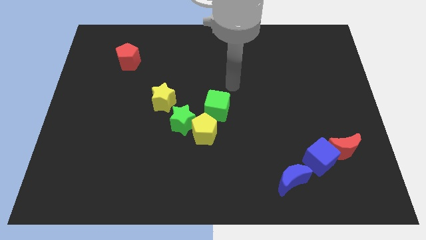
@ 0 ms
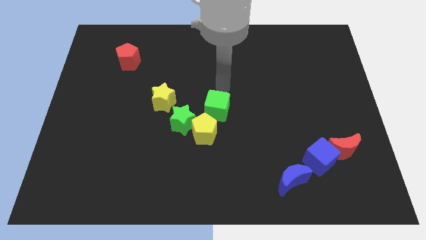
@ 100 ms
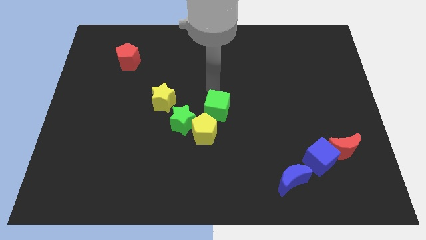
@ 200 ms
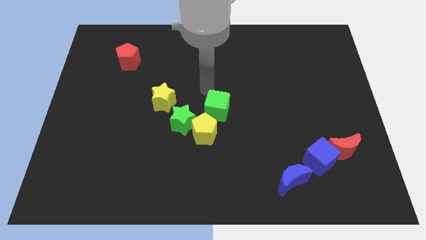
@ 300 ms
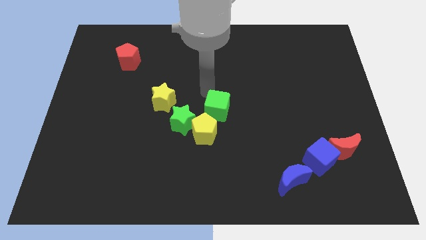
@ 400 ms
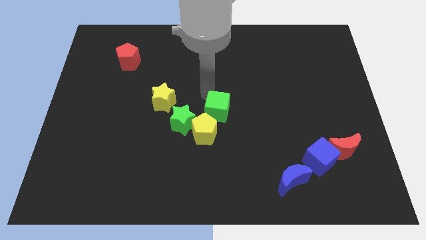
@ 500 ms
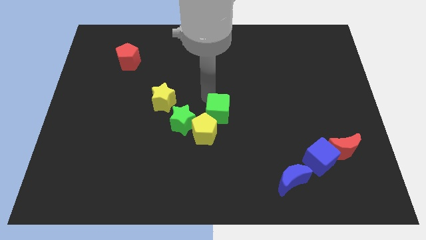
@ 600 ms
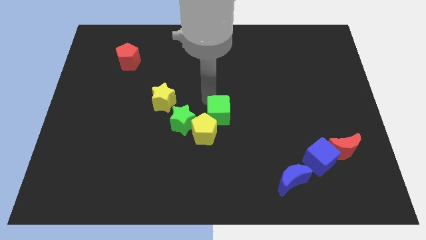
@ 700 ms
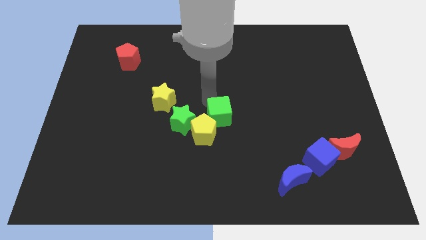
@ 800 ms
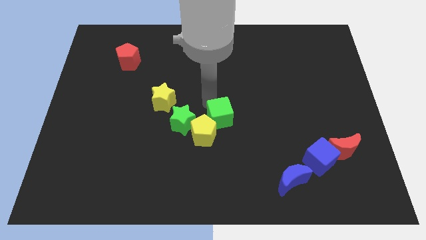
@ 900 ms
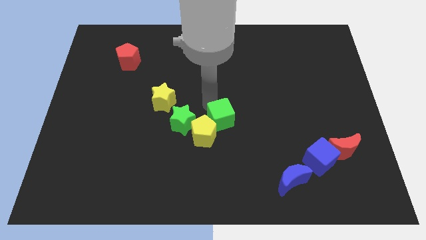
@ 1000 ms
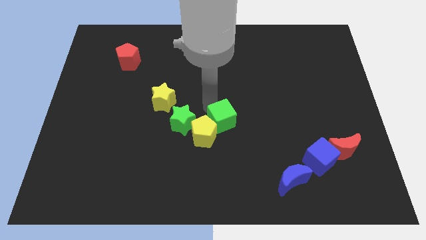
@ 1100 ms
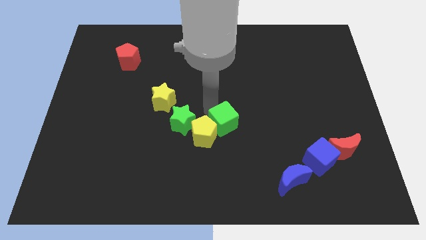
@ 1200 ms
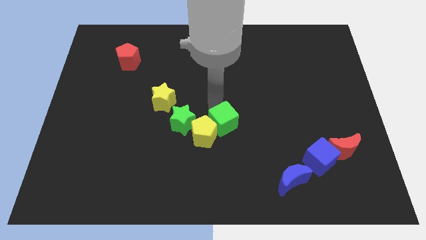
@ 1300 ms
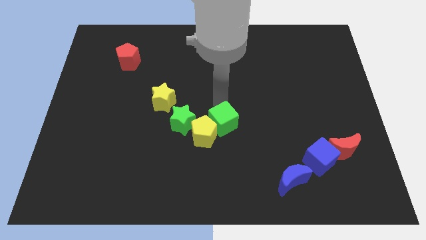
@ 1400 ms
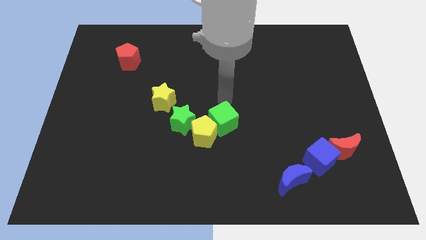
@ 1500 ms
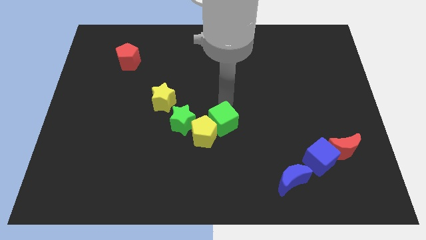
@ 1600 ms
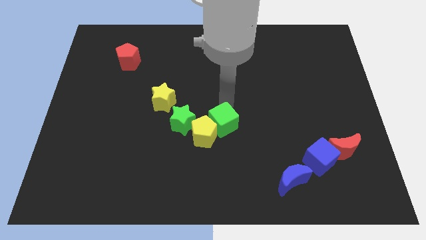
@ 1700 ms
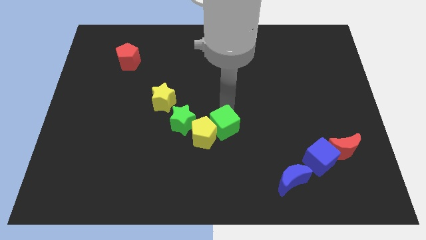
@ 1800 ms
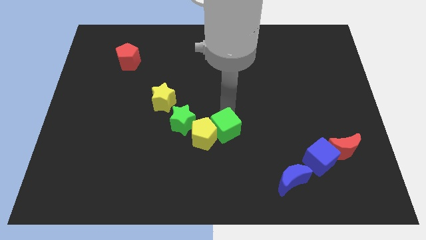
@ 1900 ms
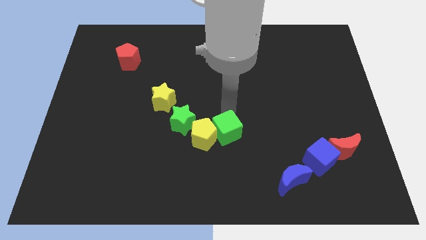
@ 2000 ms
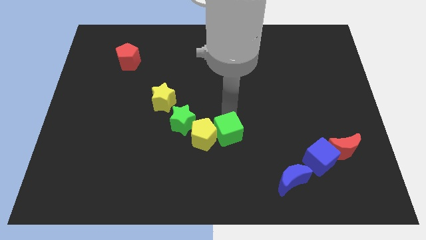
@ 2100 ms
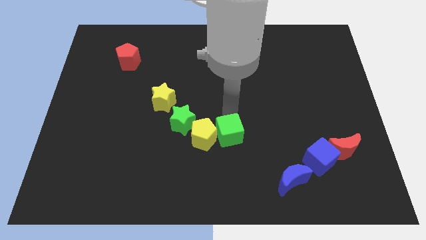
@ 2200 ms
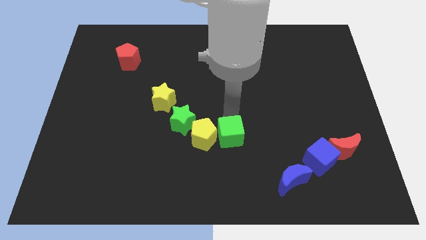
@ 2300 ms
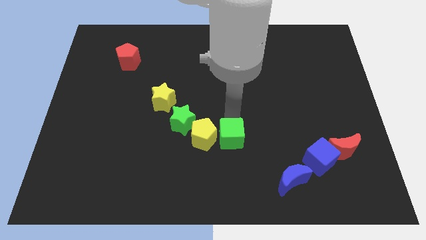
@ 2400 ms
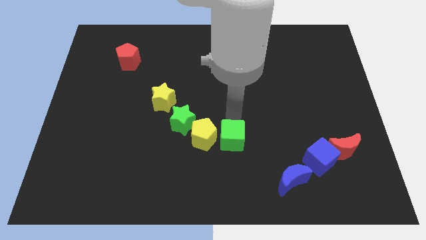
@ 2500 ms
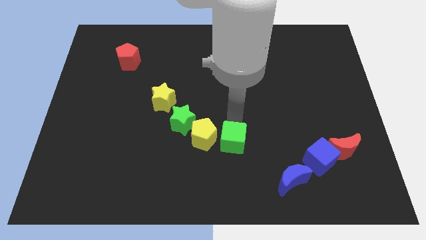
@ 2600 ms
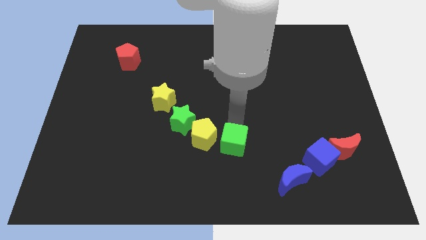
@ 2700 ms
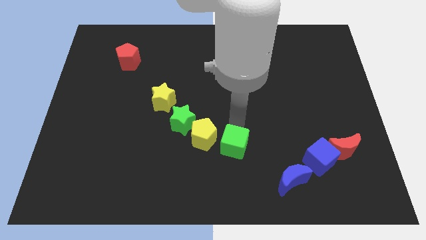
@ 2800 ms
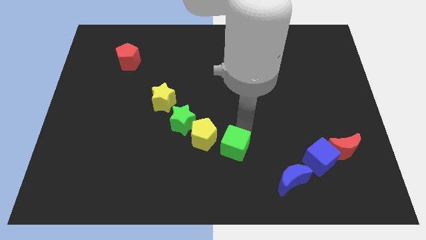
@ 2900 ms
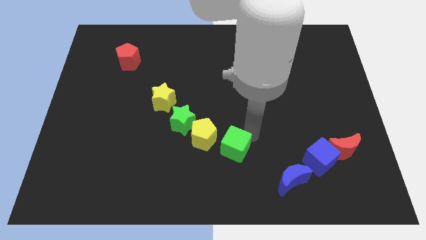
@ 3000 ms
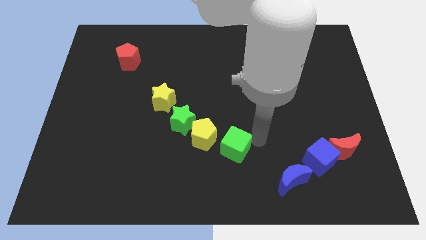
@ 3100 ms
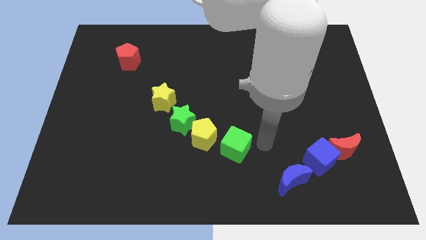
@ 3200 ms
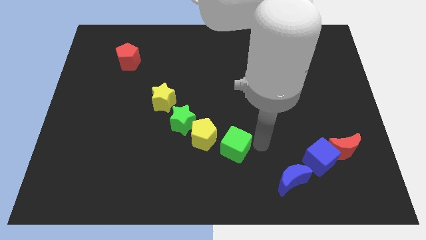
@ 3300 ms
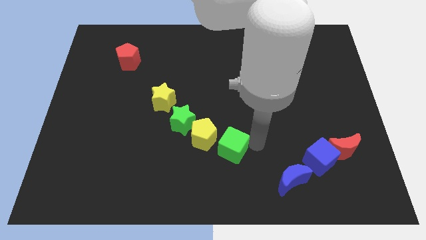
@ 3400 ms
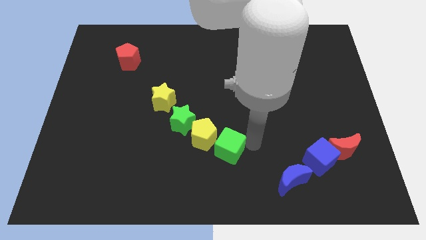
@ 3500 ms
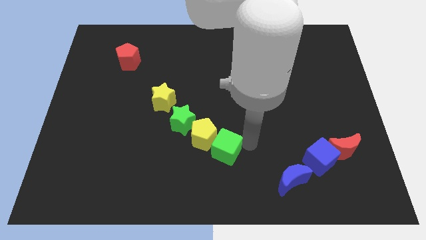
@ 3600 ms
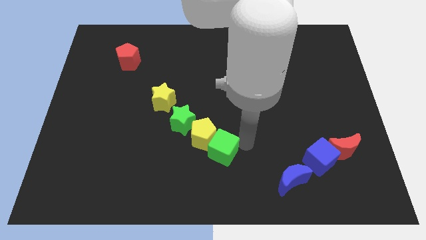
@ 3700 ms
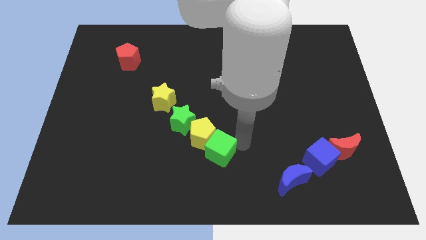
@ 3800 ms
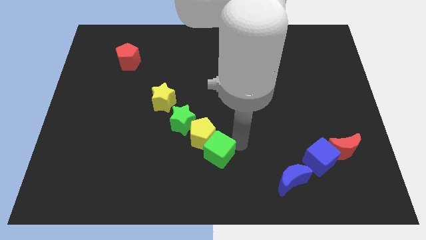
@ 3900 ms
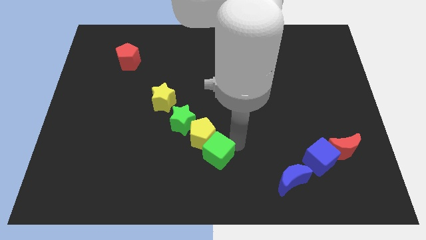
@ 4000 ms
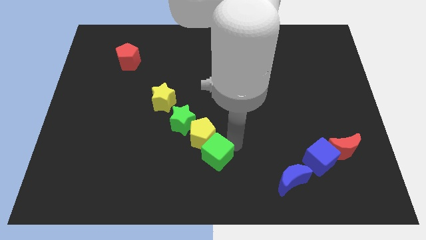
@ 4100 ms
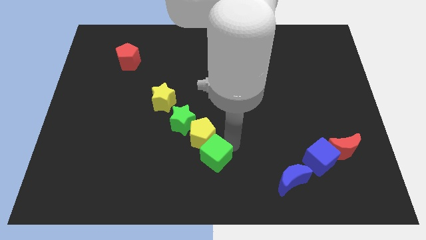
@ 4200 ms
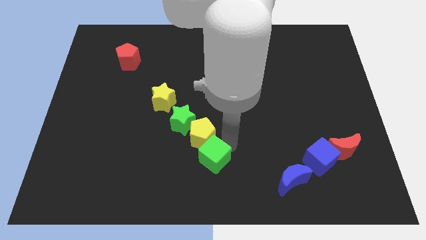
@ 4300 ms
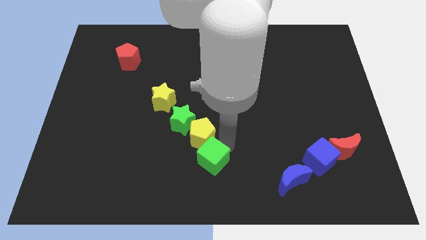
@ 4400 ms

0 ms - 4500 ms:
slightly push the green cube down and left

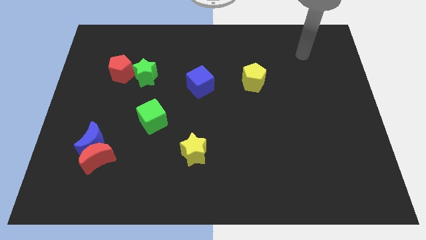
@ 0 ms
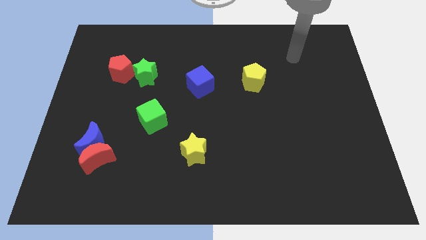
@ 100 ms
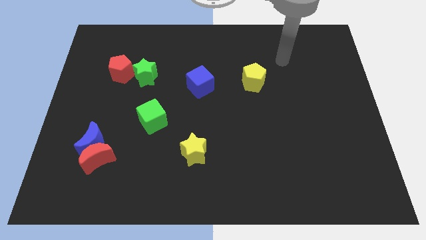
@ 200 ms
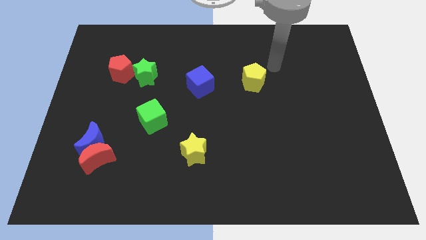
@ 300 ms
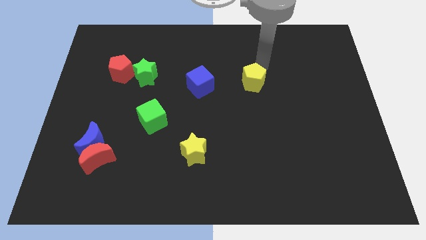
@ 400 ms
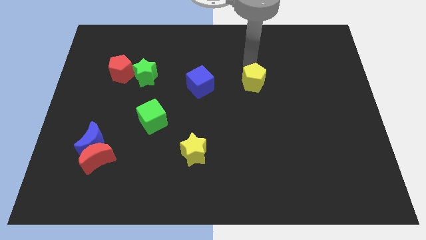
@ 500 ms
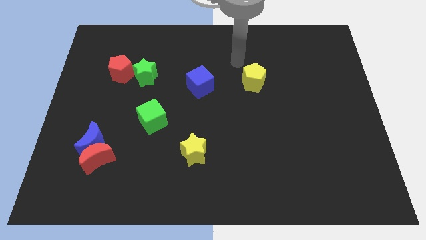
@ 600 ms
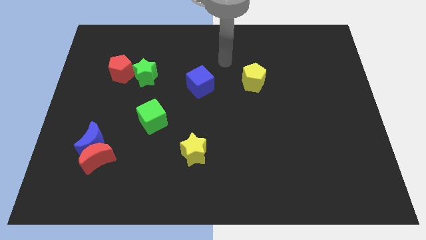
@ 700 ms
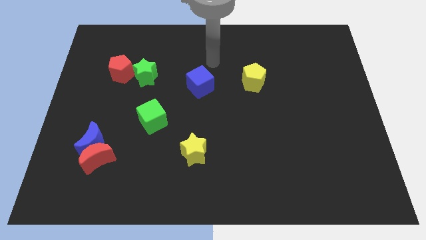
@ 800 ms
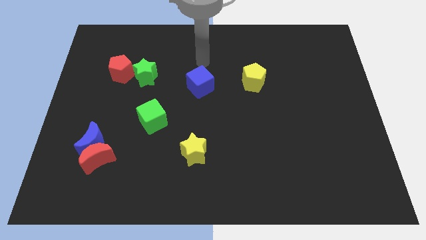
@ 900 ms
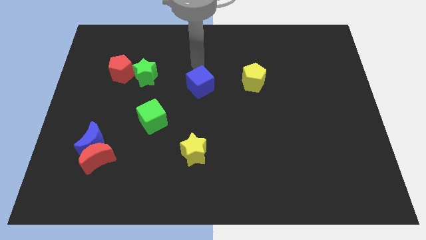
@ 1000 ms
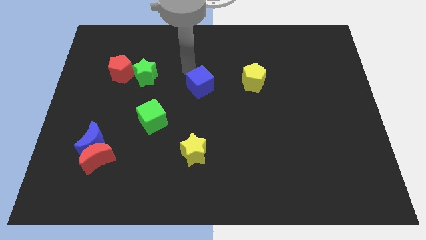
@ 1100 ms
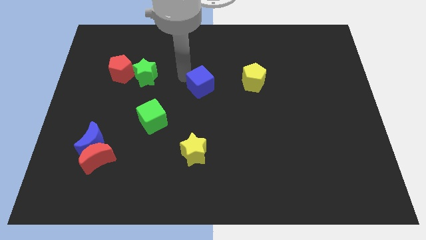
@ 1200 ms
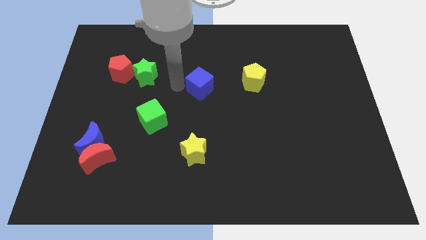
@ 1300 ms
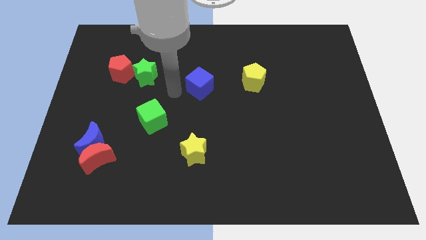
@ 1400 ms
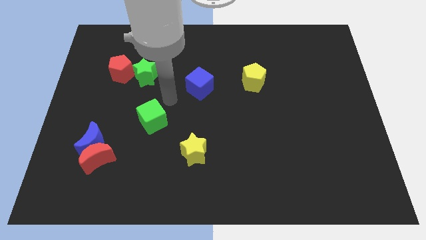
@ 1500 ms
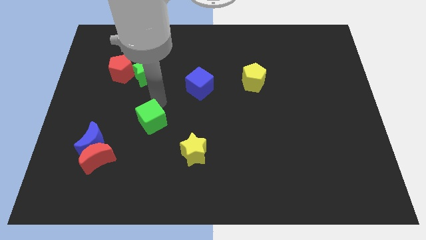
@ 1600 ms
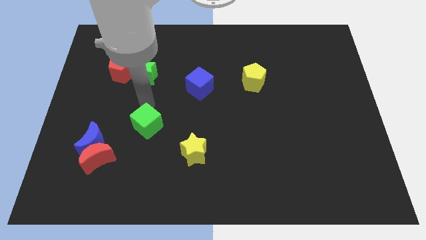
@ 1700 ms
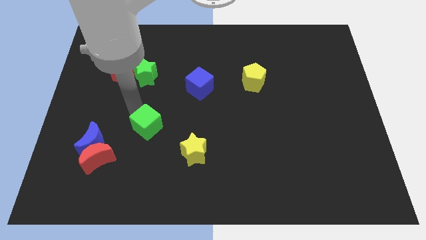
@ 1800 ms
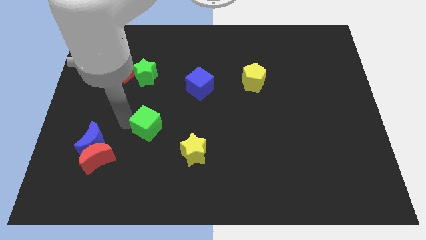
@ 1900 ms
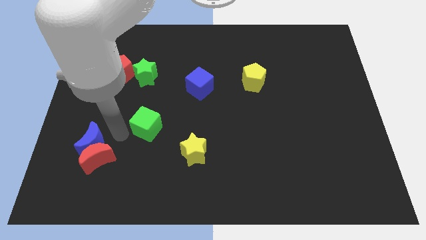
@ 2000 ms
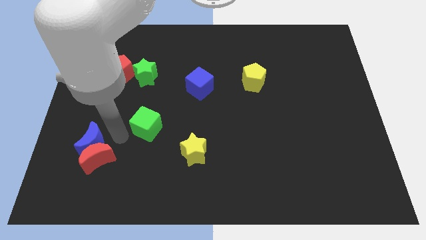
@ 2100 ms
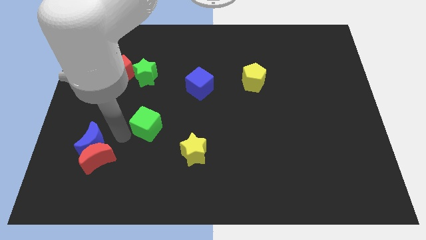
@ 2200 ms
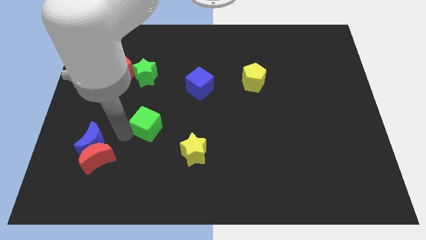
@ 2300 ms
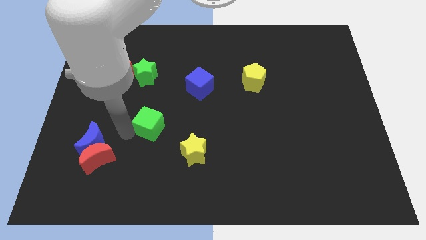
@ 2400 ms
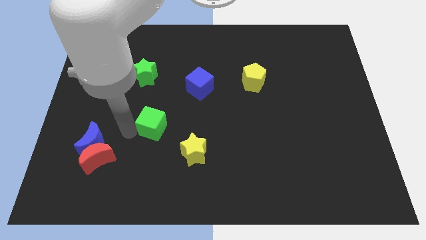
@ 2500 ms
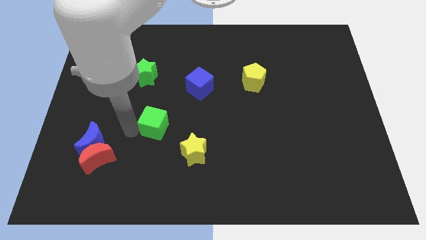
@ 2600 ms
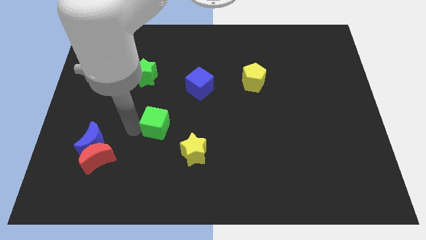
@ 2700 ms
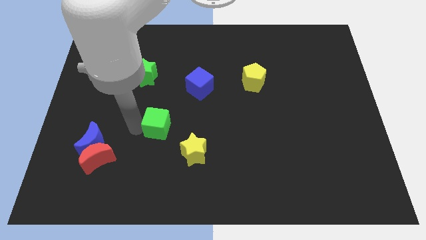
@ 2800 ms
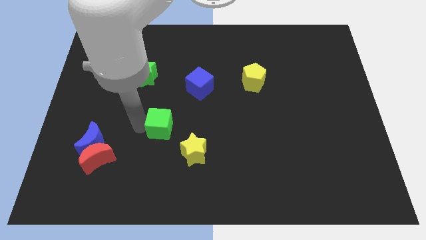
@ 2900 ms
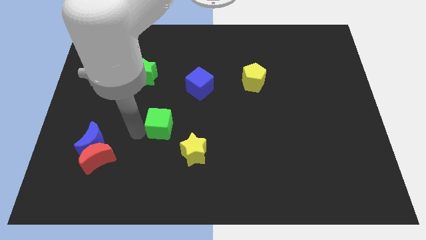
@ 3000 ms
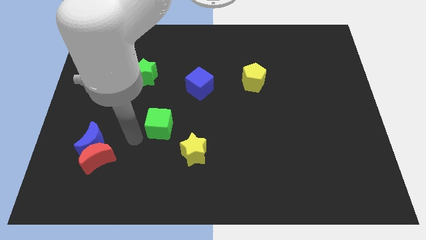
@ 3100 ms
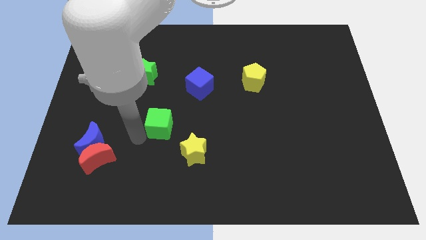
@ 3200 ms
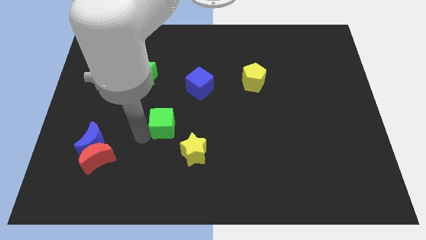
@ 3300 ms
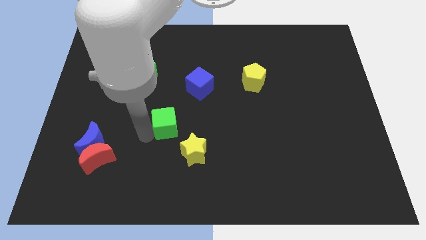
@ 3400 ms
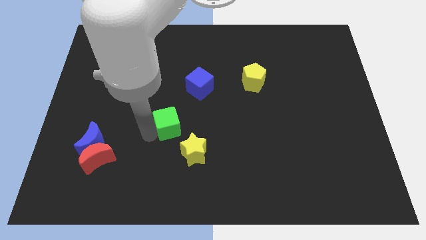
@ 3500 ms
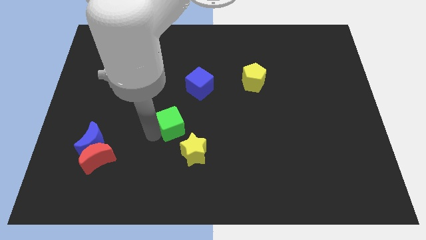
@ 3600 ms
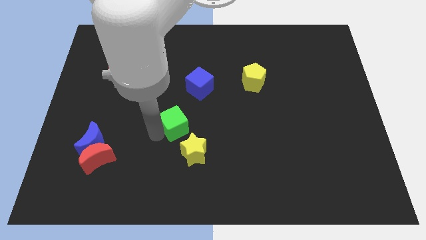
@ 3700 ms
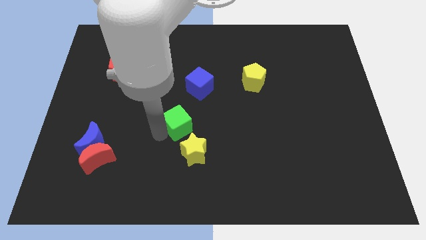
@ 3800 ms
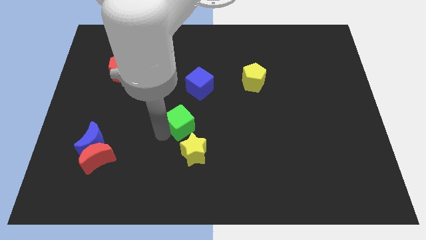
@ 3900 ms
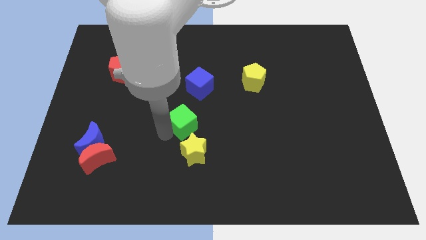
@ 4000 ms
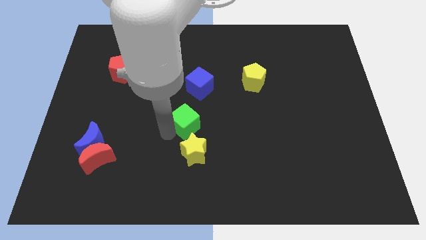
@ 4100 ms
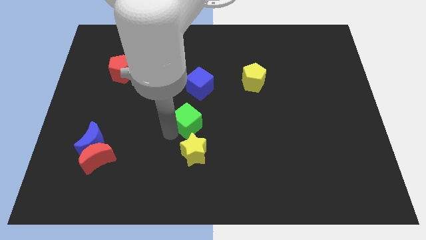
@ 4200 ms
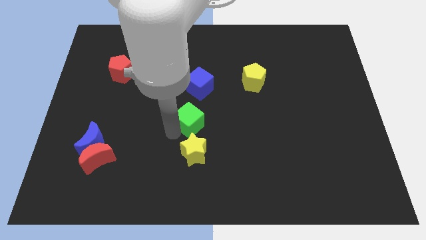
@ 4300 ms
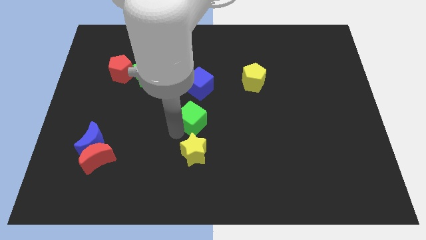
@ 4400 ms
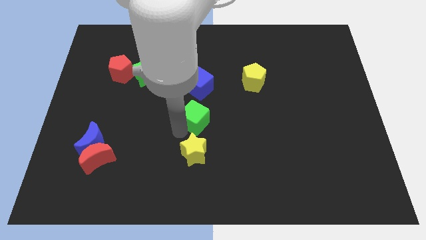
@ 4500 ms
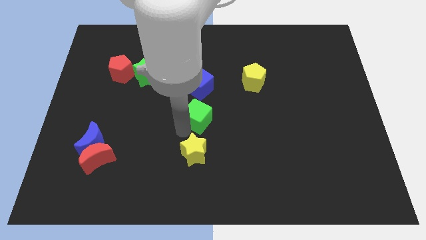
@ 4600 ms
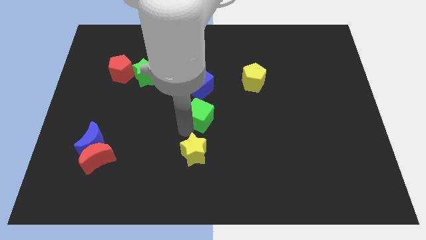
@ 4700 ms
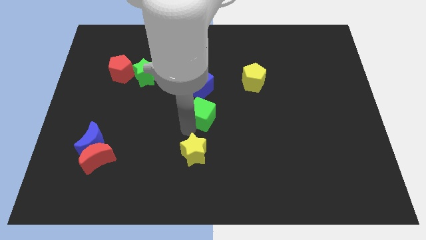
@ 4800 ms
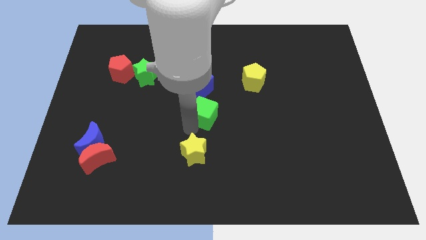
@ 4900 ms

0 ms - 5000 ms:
push the green cube a little diagonally upwards and right
